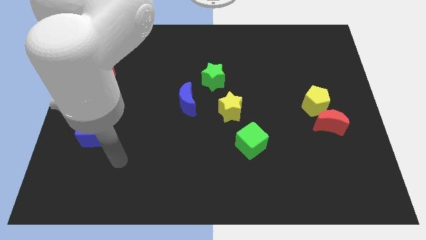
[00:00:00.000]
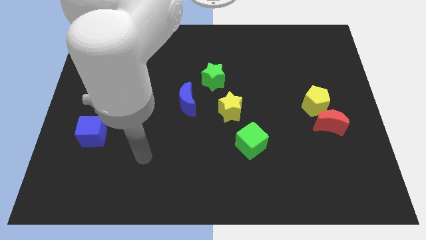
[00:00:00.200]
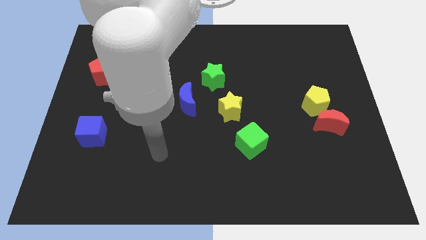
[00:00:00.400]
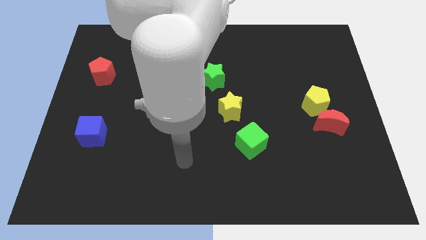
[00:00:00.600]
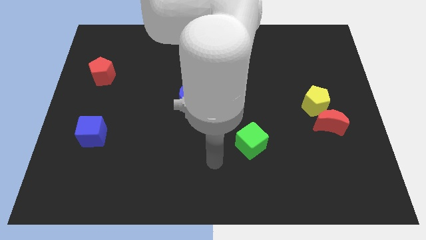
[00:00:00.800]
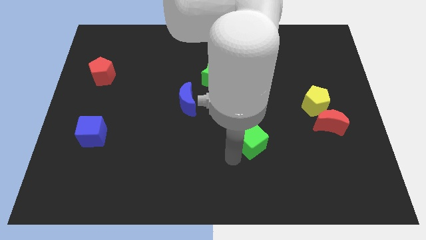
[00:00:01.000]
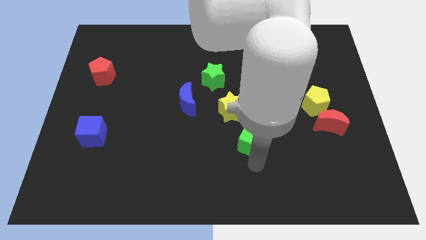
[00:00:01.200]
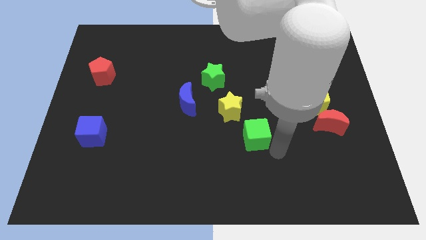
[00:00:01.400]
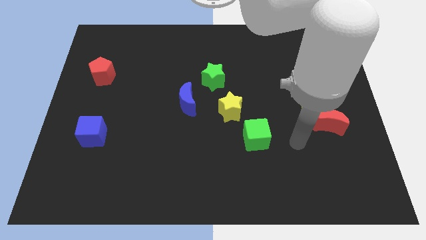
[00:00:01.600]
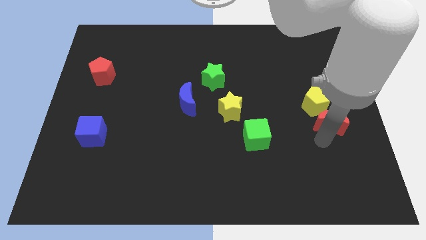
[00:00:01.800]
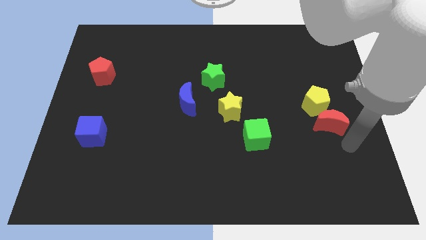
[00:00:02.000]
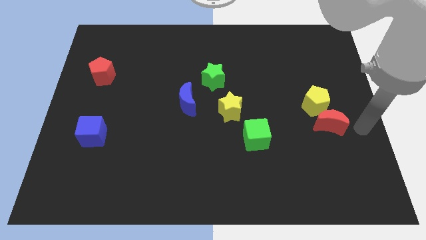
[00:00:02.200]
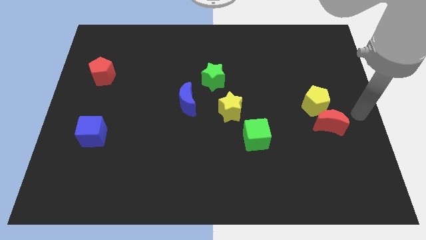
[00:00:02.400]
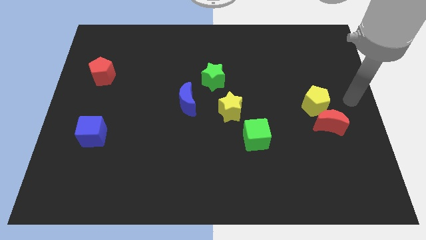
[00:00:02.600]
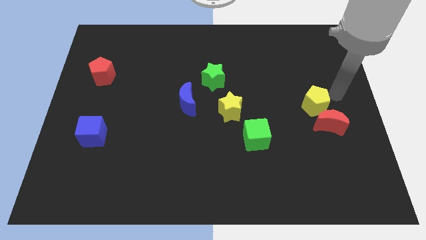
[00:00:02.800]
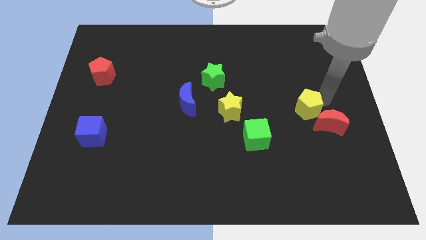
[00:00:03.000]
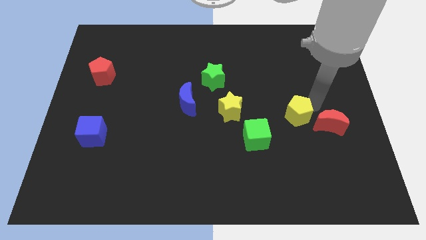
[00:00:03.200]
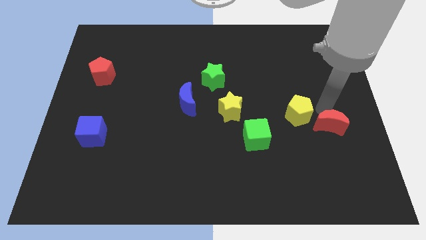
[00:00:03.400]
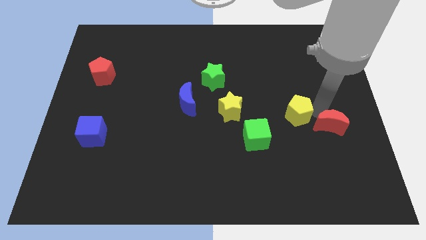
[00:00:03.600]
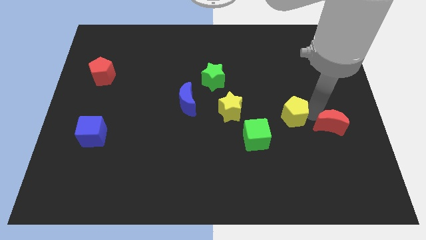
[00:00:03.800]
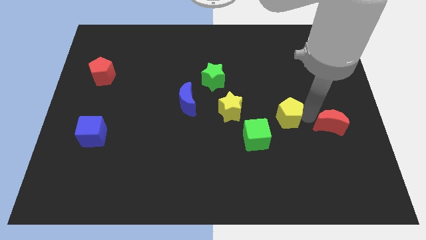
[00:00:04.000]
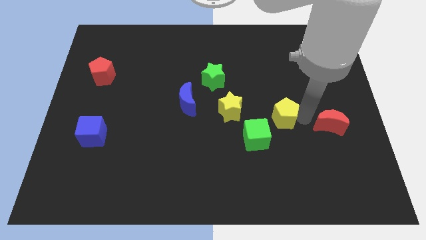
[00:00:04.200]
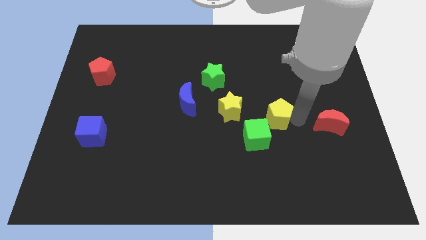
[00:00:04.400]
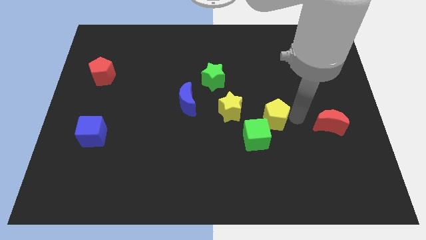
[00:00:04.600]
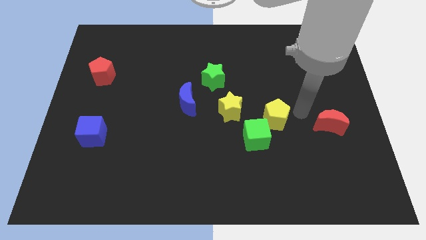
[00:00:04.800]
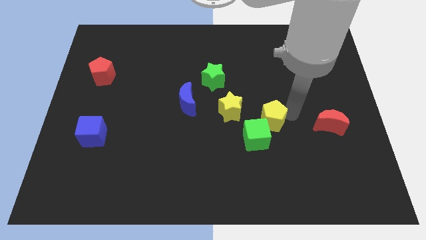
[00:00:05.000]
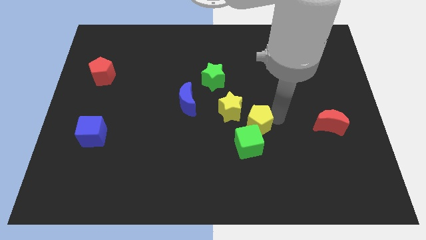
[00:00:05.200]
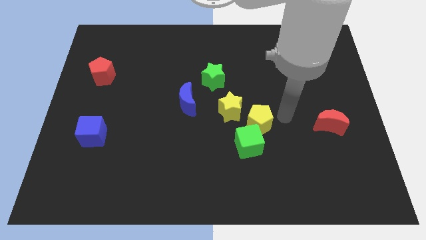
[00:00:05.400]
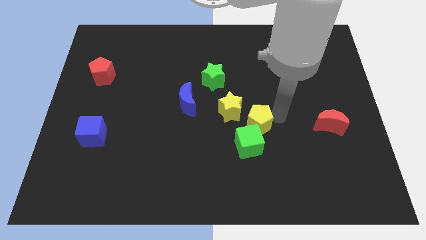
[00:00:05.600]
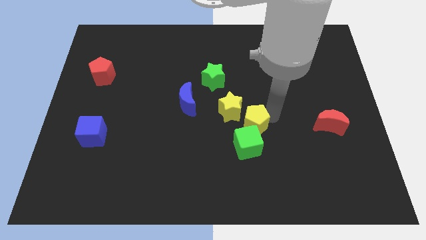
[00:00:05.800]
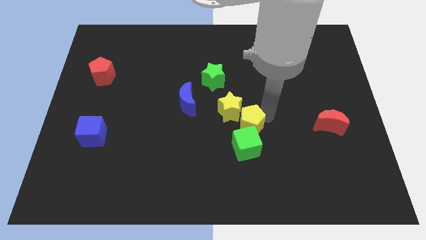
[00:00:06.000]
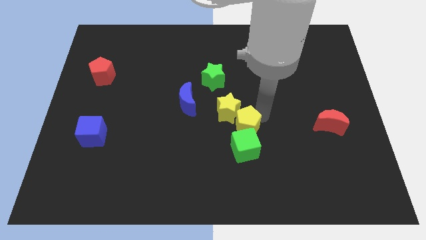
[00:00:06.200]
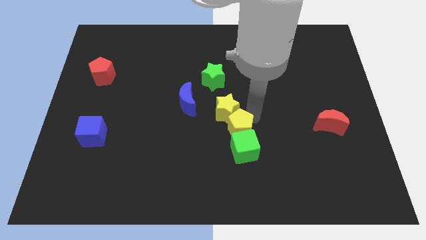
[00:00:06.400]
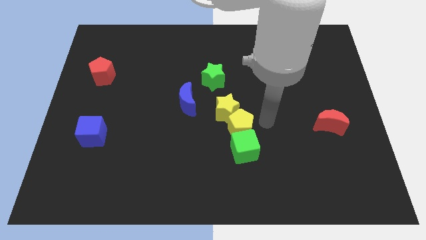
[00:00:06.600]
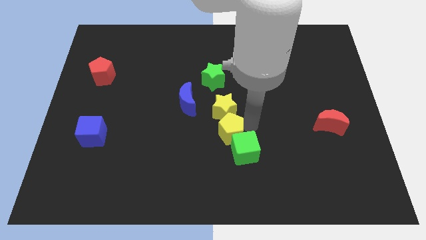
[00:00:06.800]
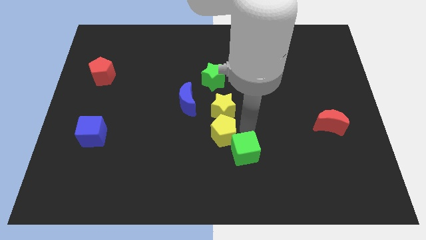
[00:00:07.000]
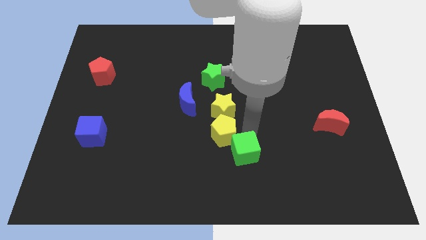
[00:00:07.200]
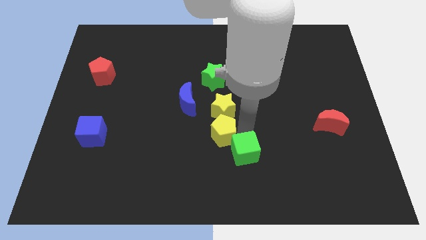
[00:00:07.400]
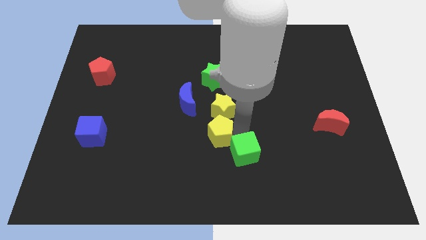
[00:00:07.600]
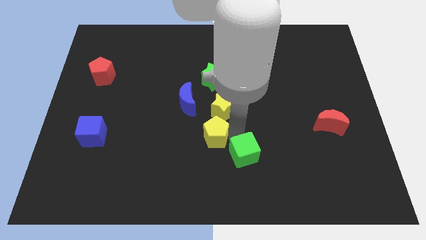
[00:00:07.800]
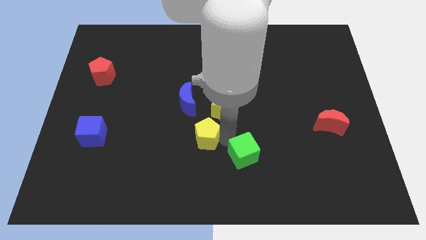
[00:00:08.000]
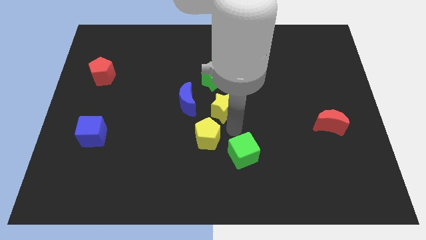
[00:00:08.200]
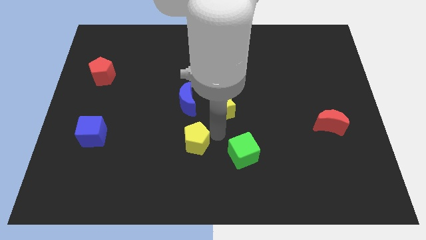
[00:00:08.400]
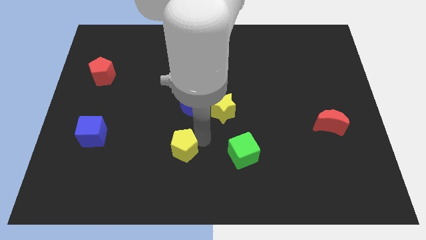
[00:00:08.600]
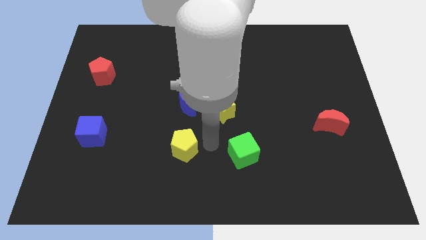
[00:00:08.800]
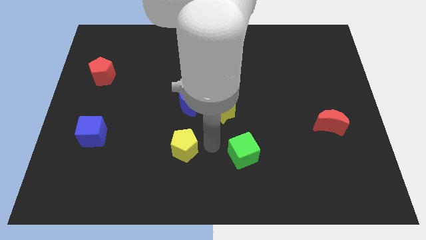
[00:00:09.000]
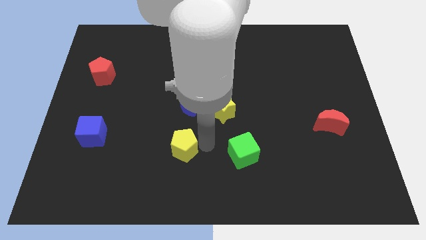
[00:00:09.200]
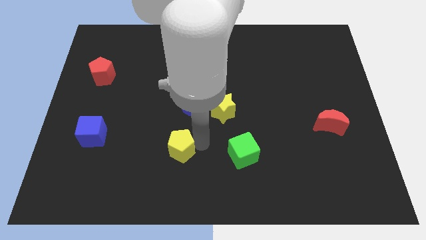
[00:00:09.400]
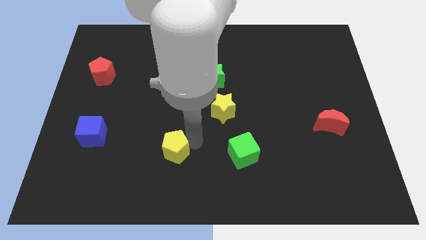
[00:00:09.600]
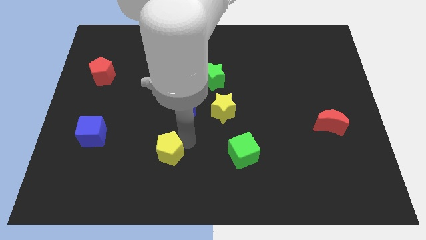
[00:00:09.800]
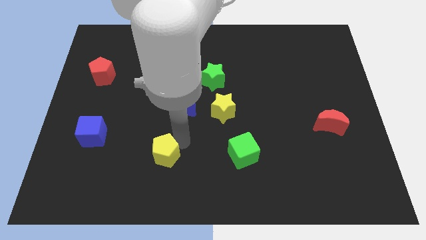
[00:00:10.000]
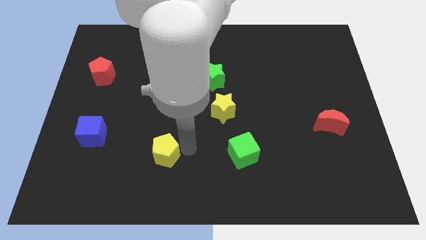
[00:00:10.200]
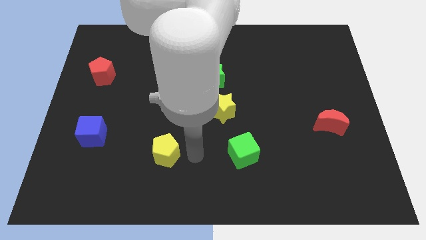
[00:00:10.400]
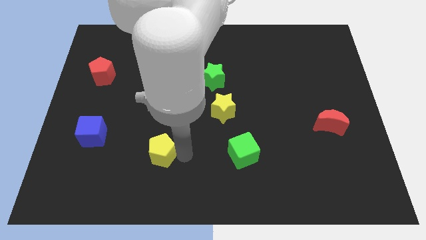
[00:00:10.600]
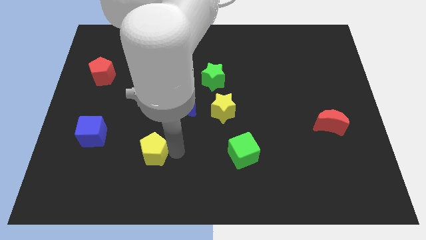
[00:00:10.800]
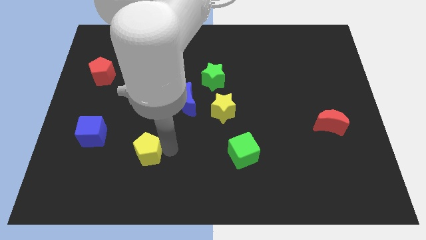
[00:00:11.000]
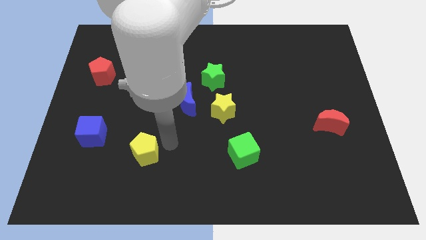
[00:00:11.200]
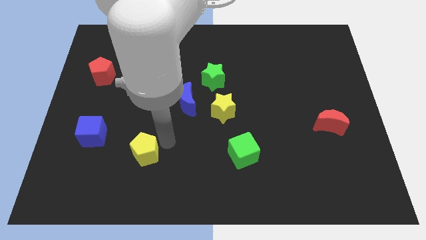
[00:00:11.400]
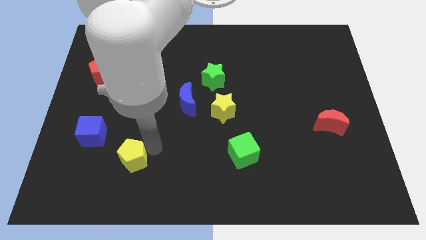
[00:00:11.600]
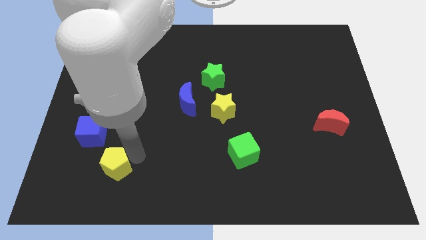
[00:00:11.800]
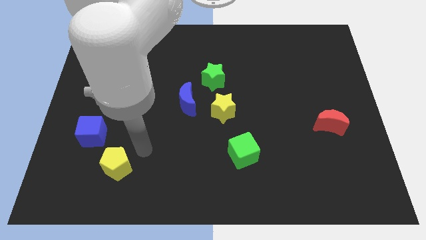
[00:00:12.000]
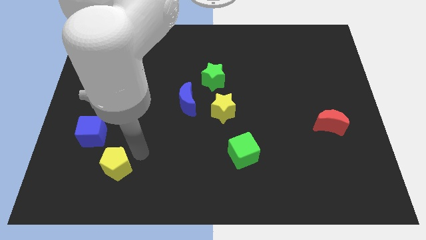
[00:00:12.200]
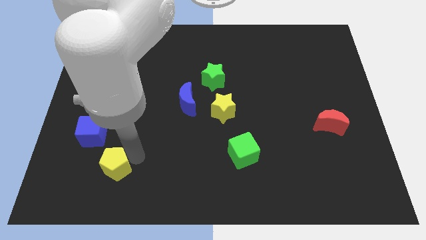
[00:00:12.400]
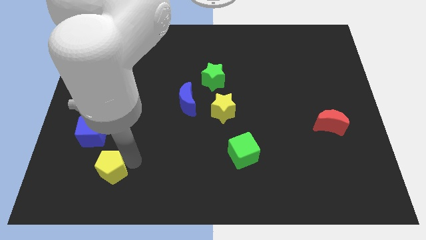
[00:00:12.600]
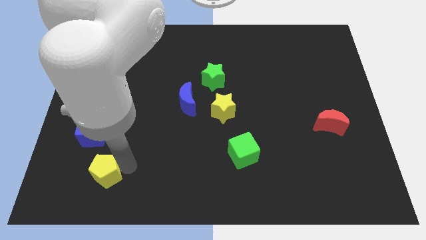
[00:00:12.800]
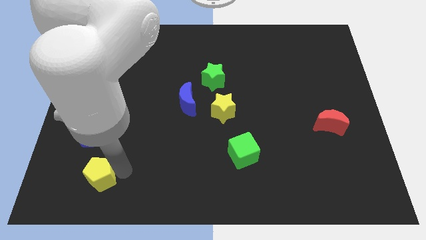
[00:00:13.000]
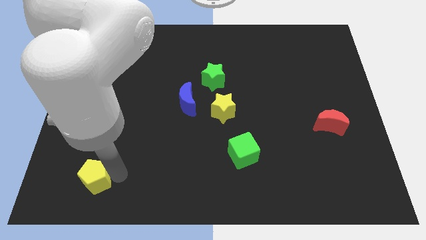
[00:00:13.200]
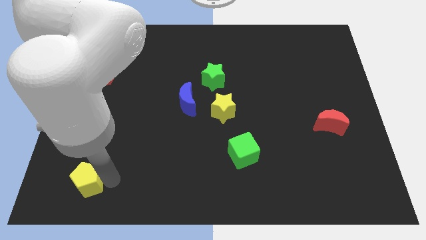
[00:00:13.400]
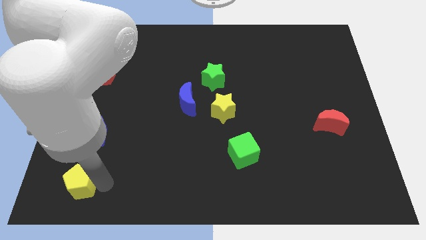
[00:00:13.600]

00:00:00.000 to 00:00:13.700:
put the yellow pentagon to the bottom left
